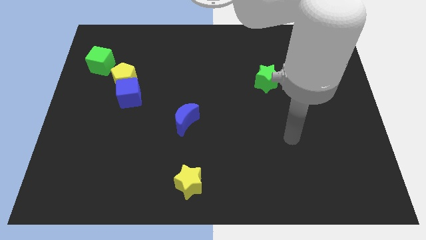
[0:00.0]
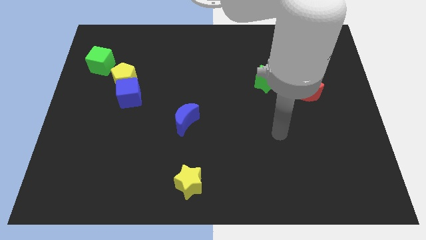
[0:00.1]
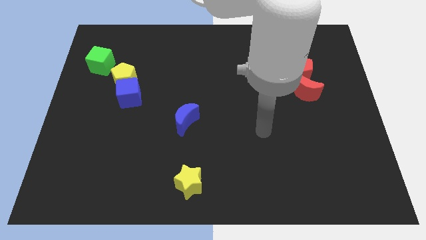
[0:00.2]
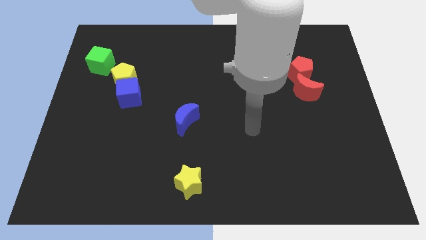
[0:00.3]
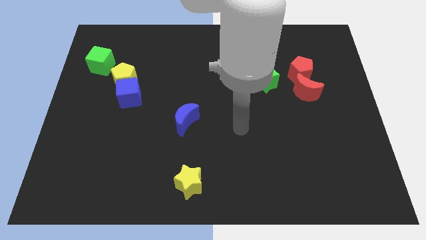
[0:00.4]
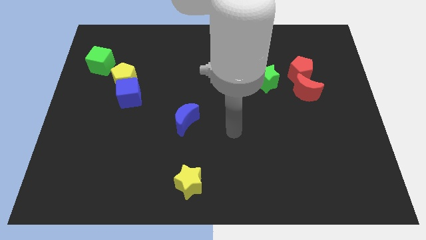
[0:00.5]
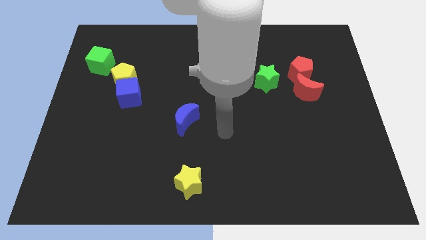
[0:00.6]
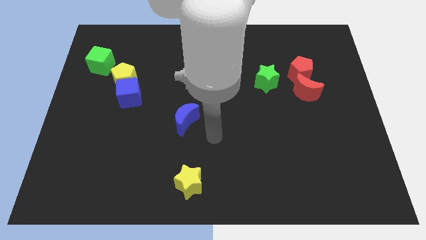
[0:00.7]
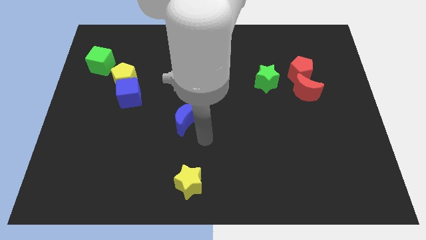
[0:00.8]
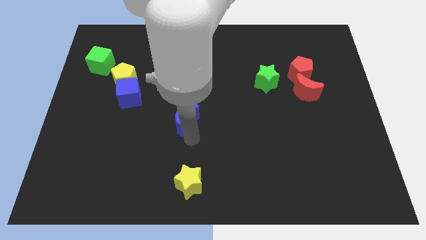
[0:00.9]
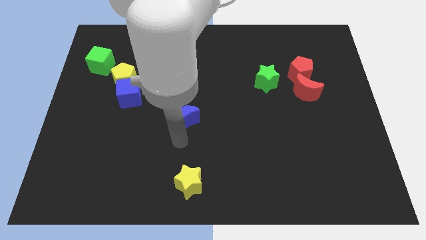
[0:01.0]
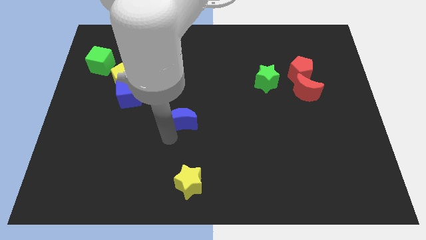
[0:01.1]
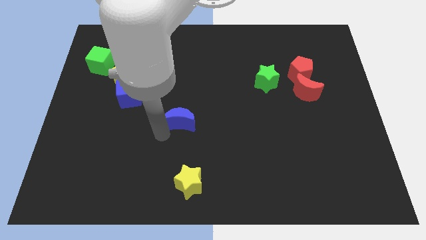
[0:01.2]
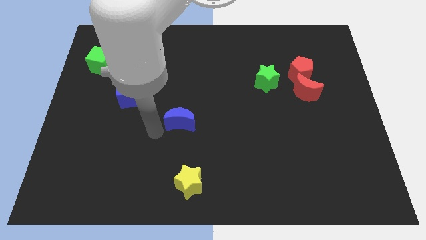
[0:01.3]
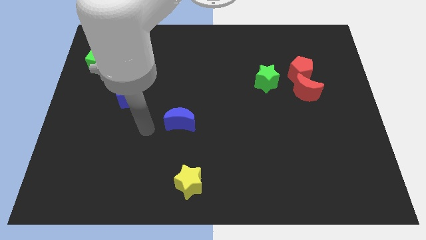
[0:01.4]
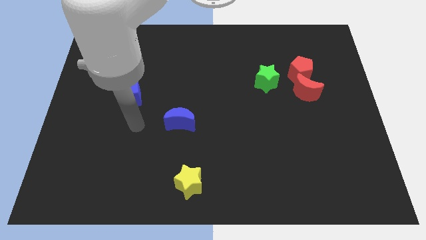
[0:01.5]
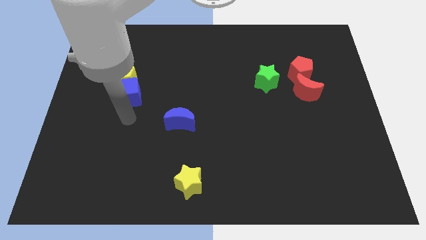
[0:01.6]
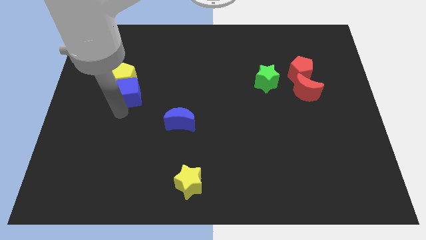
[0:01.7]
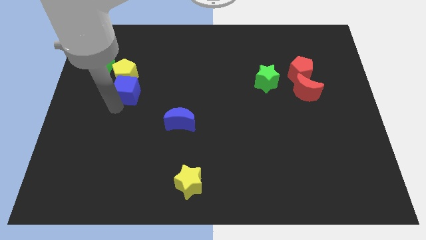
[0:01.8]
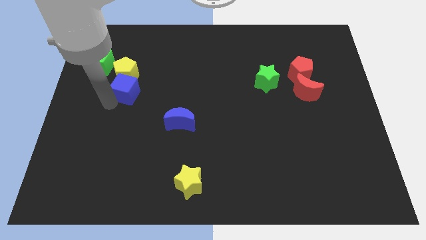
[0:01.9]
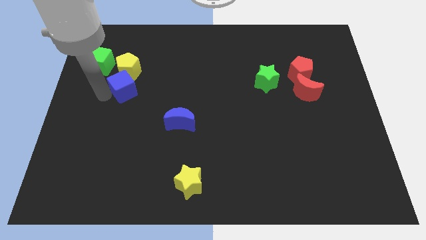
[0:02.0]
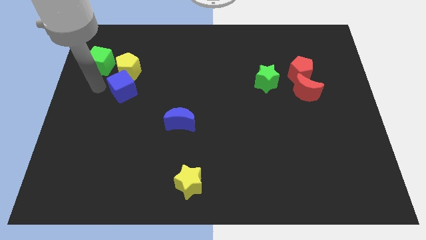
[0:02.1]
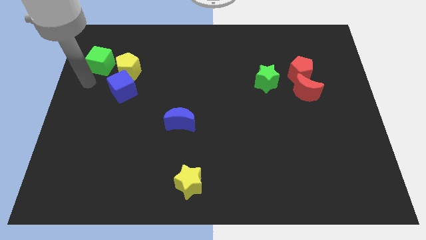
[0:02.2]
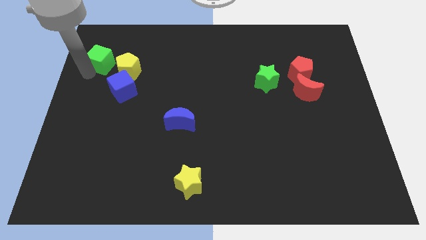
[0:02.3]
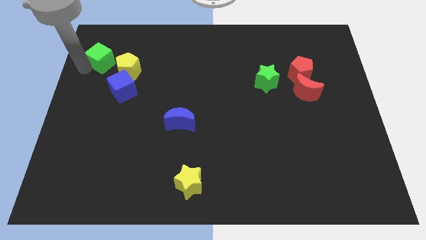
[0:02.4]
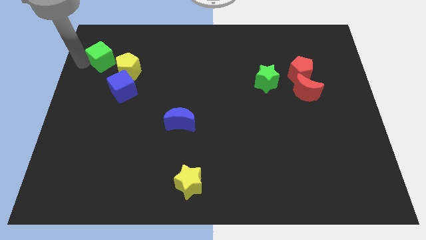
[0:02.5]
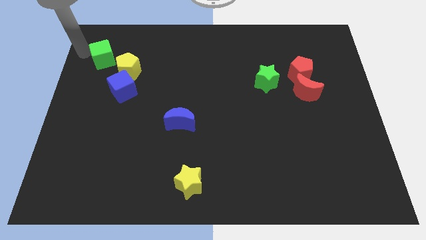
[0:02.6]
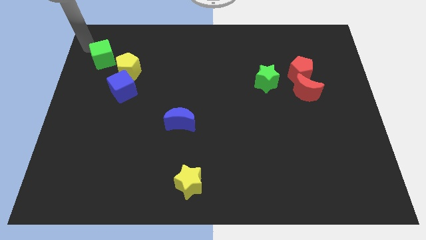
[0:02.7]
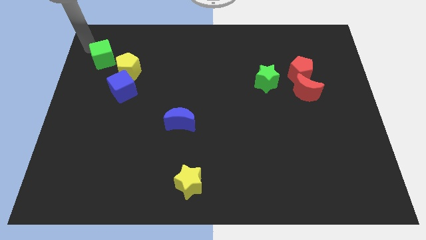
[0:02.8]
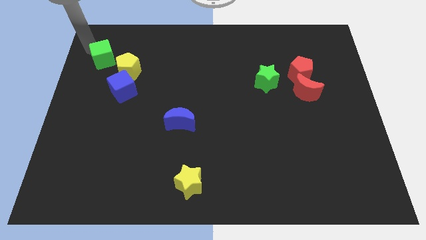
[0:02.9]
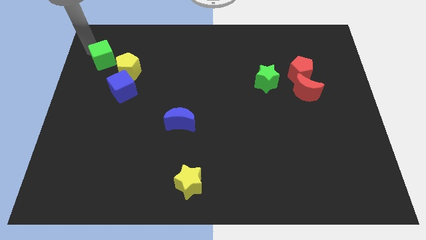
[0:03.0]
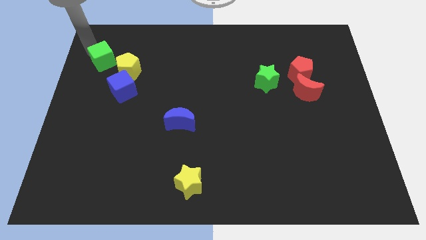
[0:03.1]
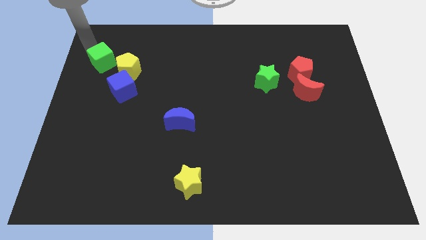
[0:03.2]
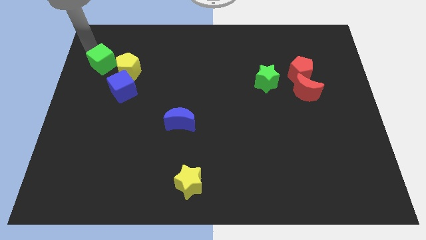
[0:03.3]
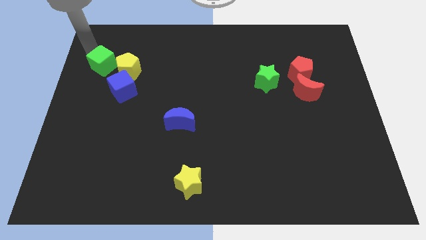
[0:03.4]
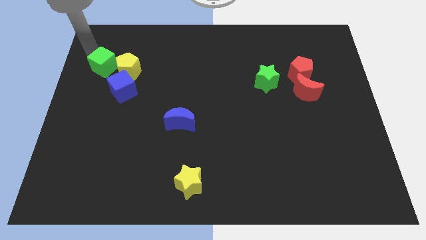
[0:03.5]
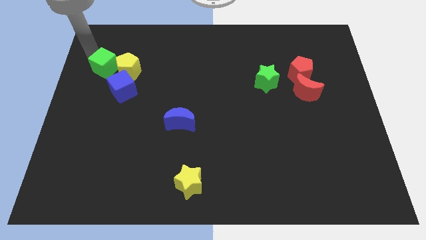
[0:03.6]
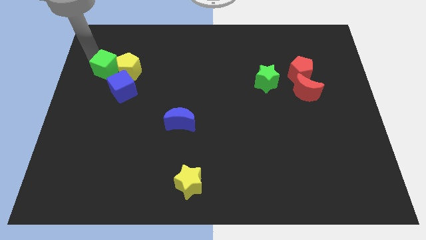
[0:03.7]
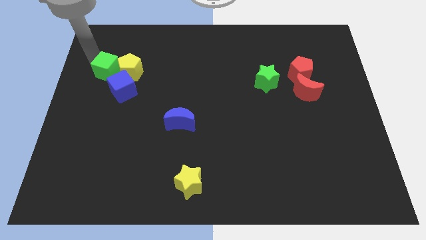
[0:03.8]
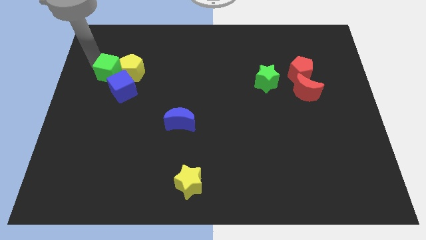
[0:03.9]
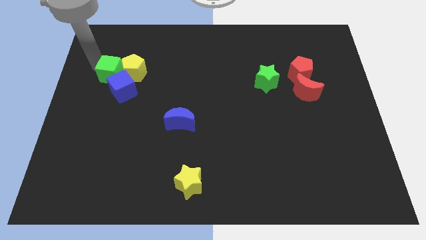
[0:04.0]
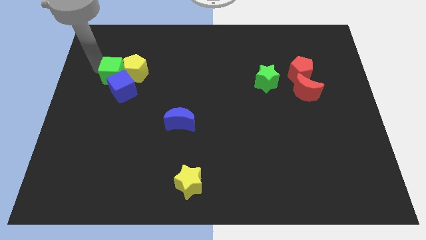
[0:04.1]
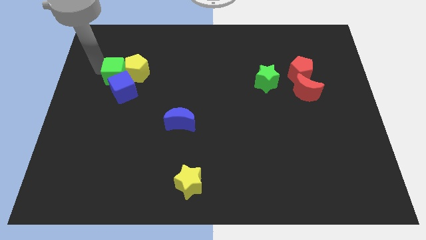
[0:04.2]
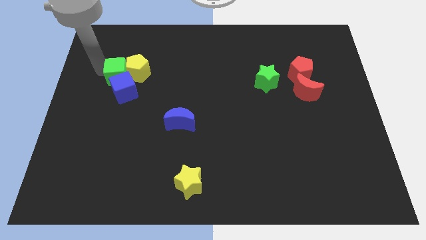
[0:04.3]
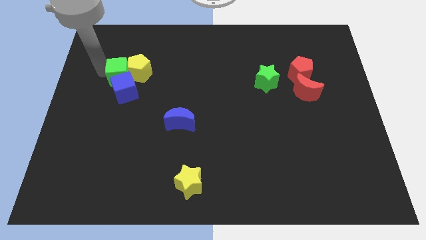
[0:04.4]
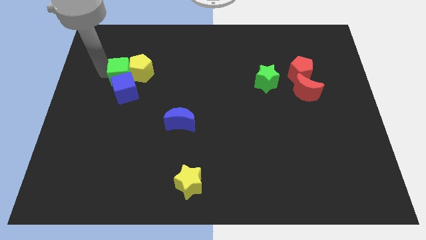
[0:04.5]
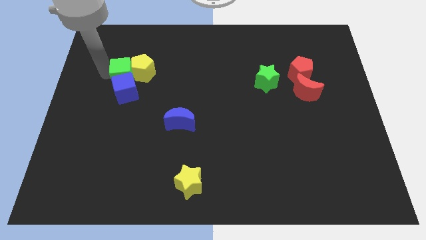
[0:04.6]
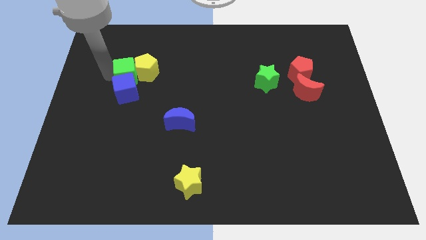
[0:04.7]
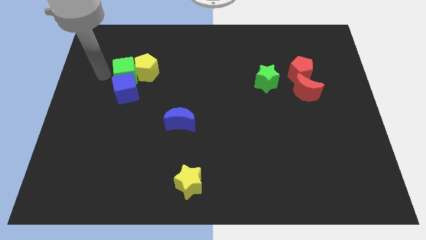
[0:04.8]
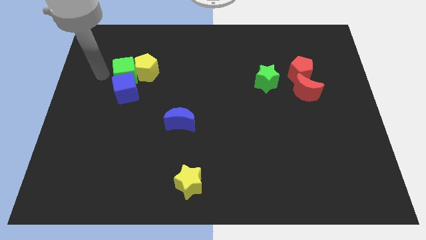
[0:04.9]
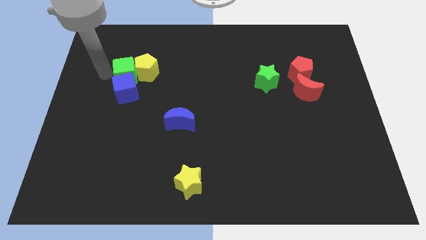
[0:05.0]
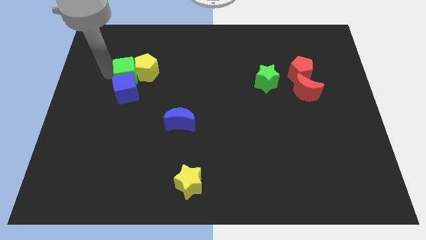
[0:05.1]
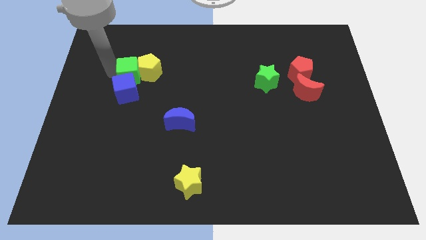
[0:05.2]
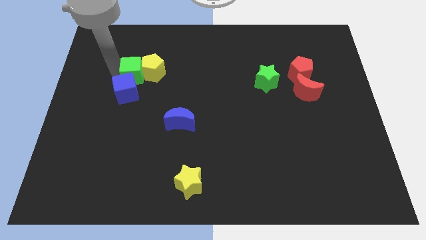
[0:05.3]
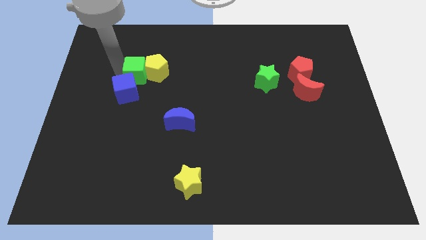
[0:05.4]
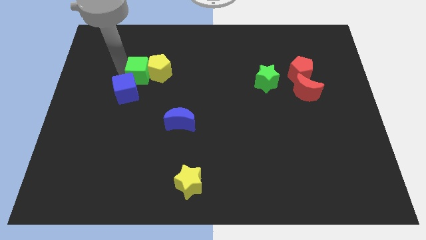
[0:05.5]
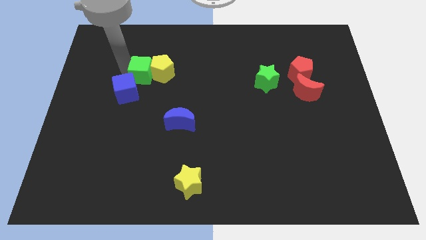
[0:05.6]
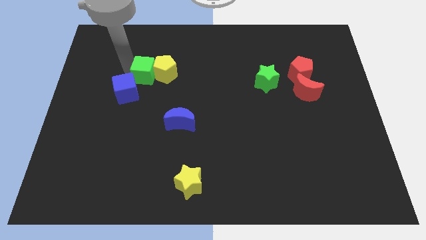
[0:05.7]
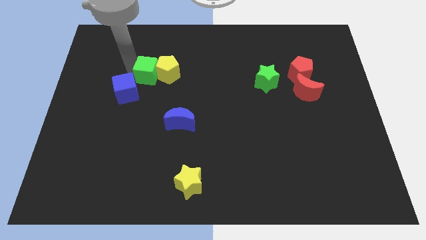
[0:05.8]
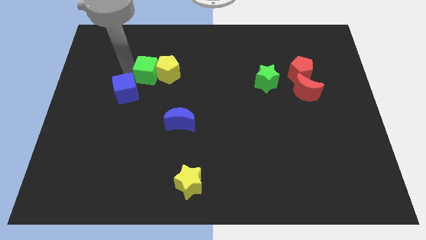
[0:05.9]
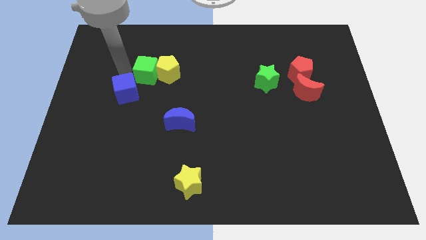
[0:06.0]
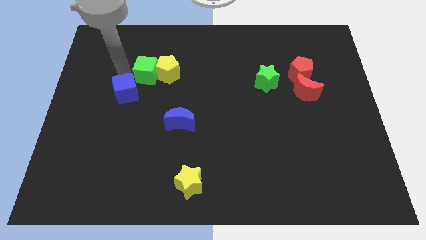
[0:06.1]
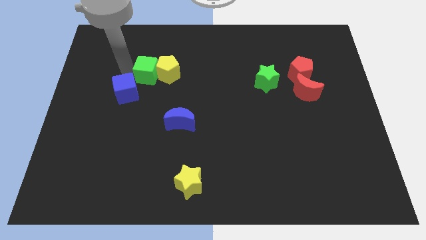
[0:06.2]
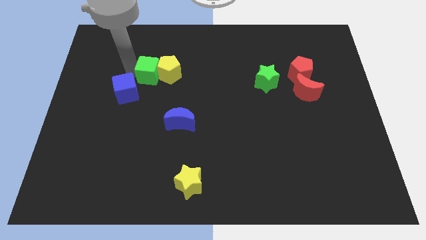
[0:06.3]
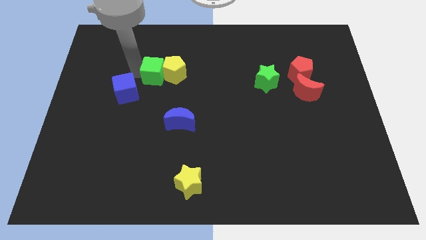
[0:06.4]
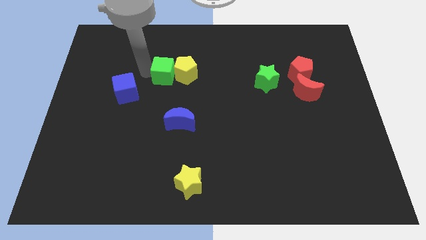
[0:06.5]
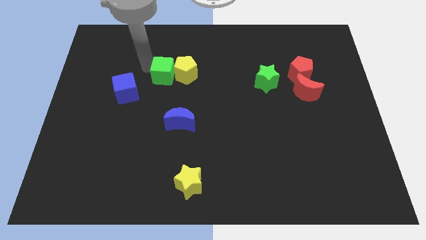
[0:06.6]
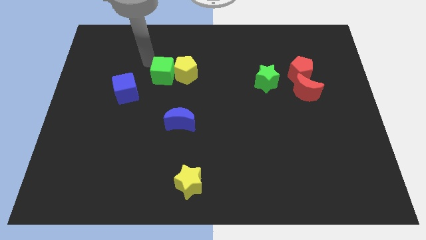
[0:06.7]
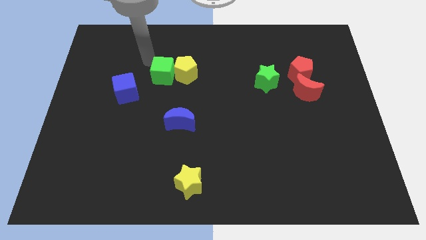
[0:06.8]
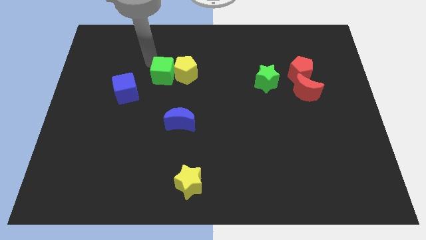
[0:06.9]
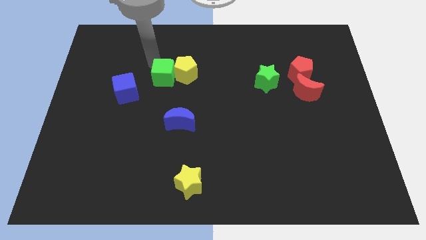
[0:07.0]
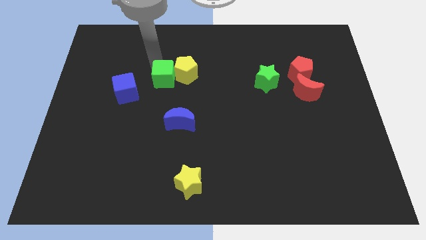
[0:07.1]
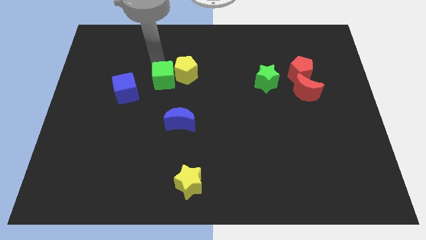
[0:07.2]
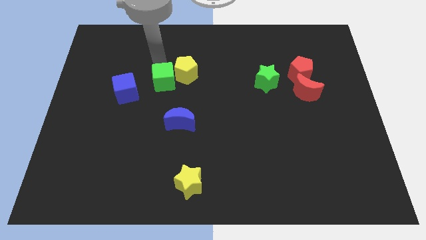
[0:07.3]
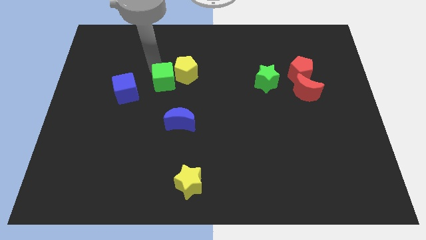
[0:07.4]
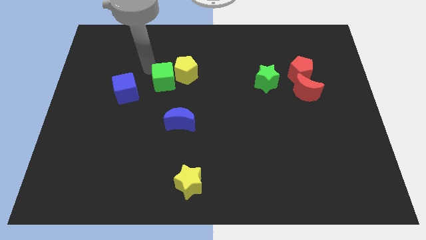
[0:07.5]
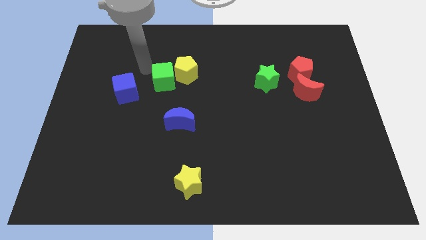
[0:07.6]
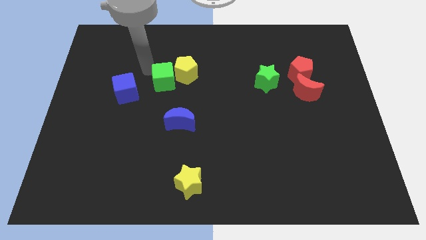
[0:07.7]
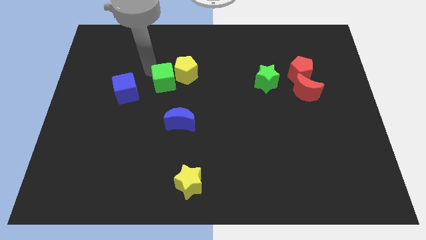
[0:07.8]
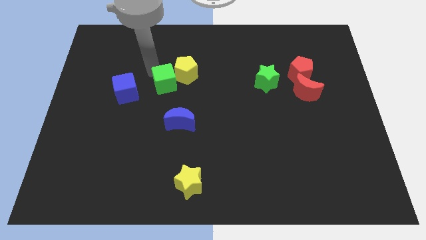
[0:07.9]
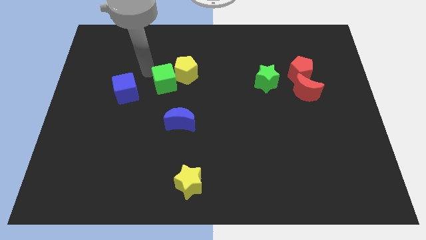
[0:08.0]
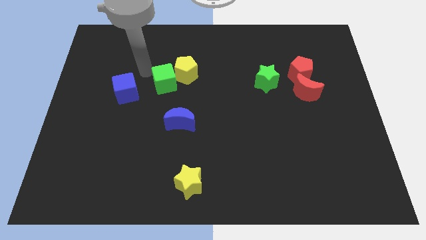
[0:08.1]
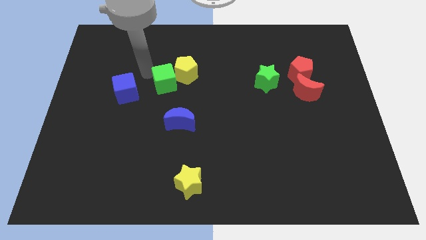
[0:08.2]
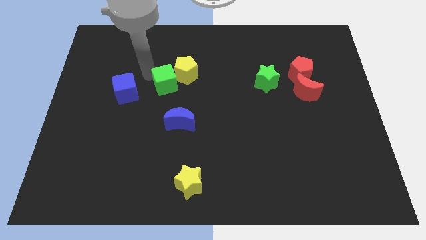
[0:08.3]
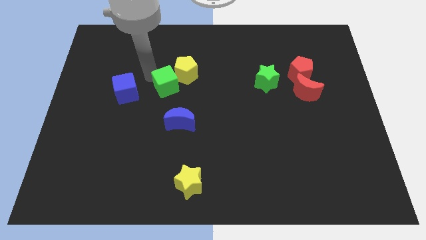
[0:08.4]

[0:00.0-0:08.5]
put the green cube to the middle
